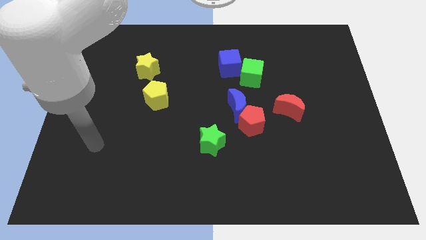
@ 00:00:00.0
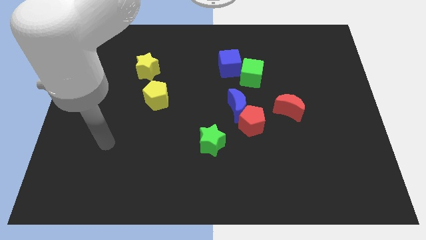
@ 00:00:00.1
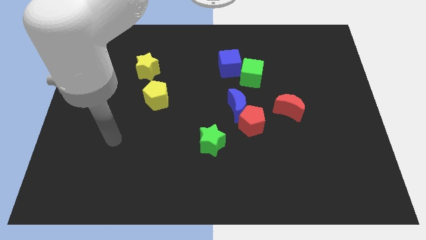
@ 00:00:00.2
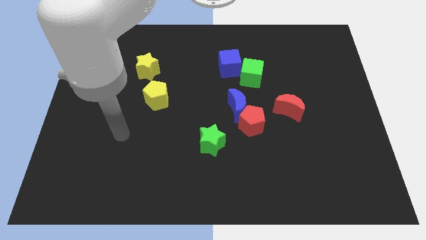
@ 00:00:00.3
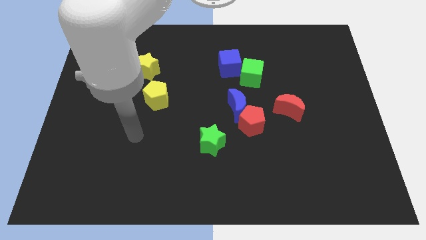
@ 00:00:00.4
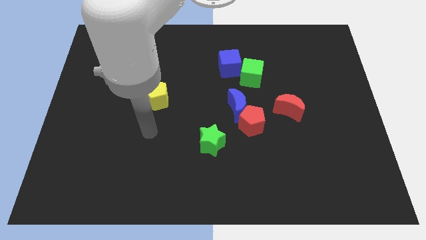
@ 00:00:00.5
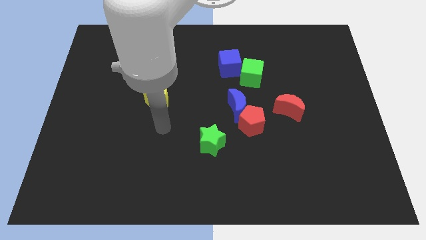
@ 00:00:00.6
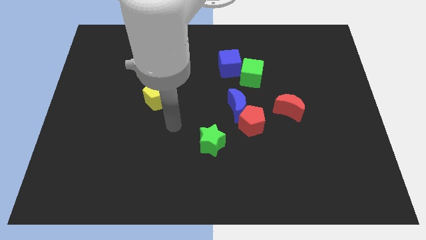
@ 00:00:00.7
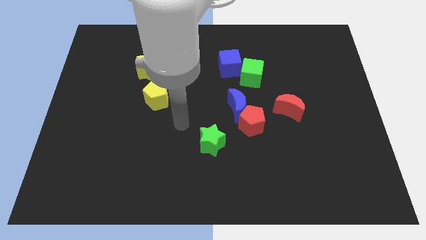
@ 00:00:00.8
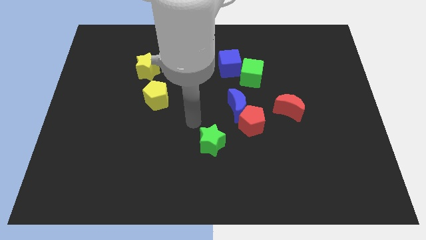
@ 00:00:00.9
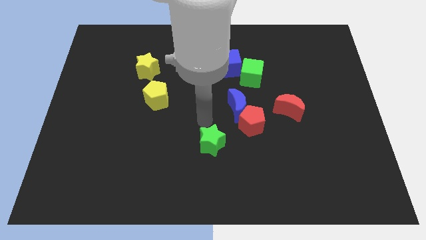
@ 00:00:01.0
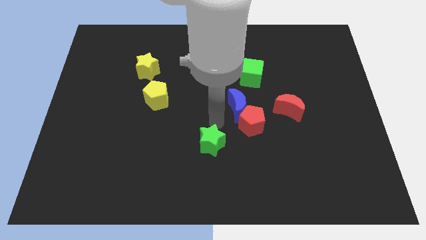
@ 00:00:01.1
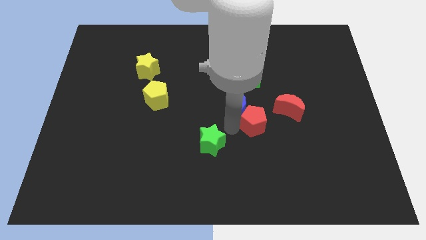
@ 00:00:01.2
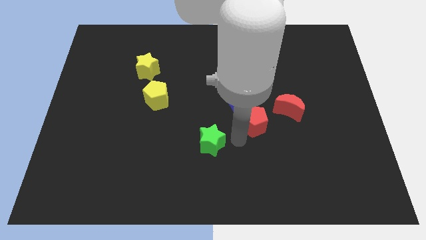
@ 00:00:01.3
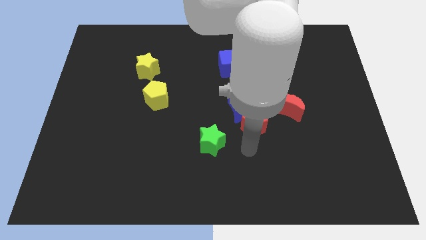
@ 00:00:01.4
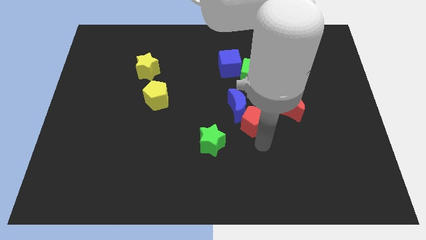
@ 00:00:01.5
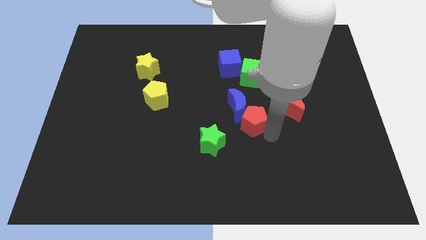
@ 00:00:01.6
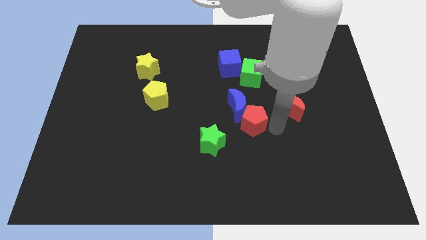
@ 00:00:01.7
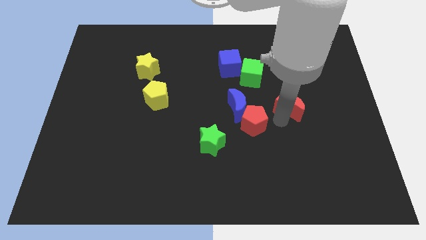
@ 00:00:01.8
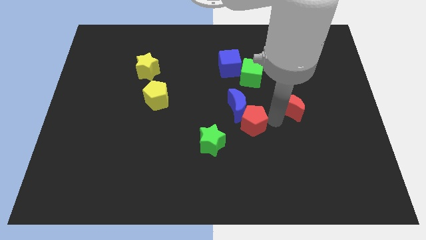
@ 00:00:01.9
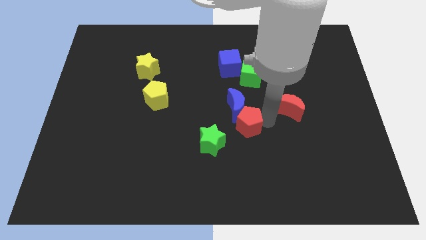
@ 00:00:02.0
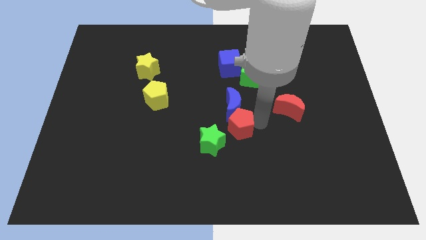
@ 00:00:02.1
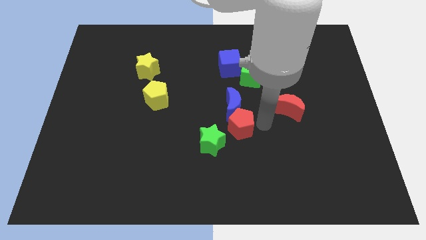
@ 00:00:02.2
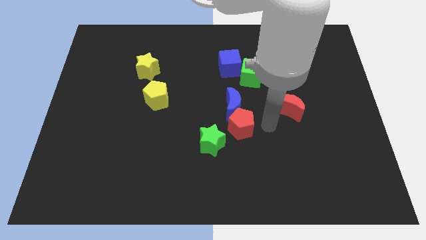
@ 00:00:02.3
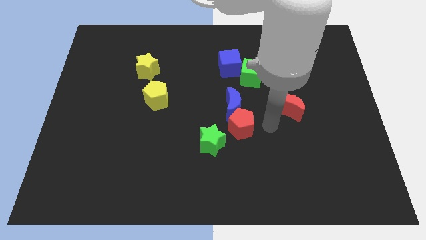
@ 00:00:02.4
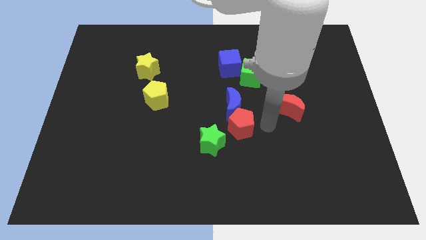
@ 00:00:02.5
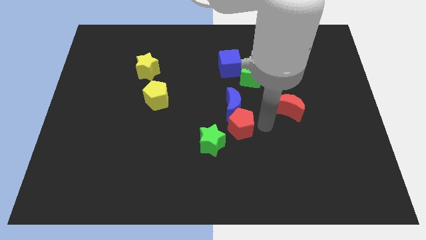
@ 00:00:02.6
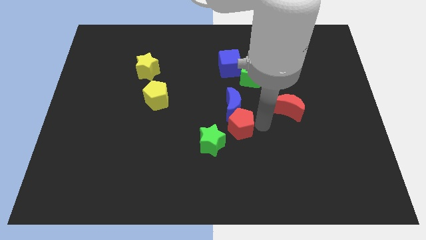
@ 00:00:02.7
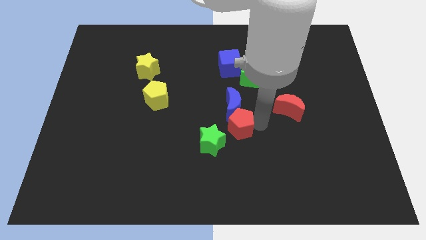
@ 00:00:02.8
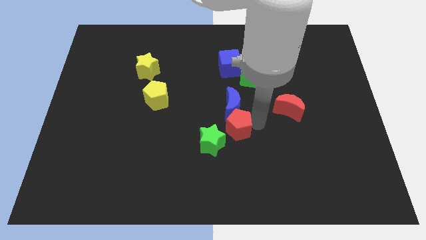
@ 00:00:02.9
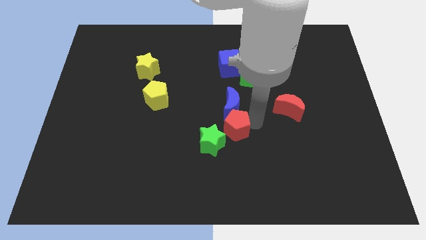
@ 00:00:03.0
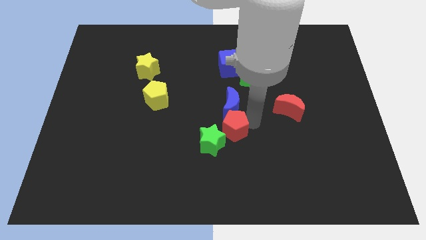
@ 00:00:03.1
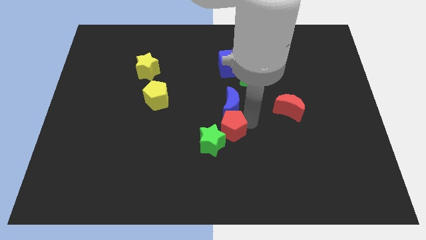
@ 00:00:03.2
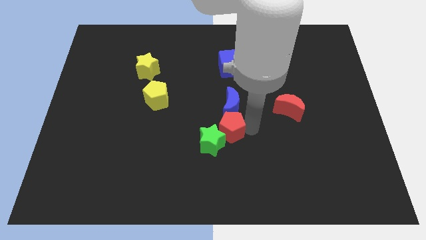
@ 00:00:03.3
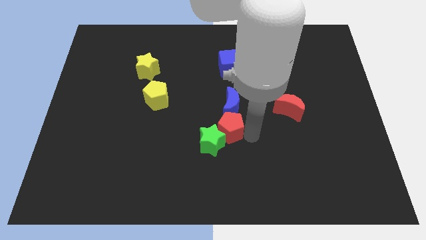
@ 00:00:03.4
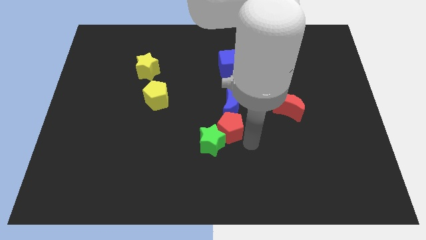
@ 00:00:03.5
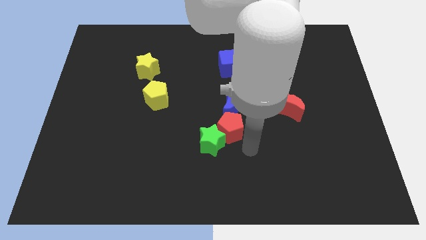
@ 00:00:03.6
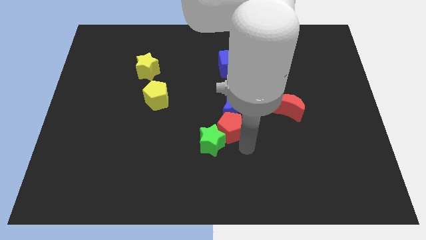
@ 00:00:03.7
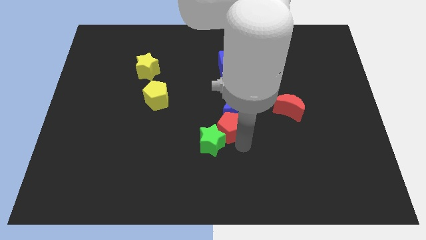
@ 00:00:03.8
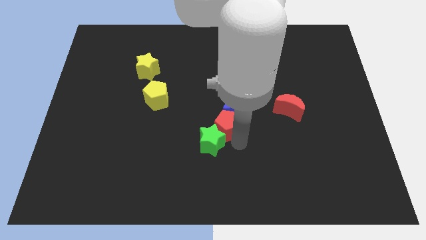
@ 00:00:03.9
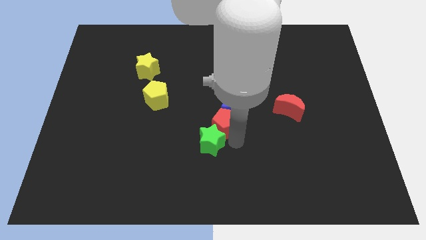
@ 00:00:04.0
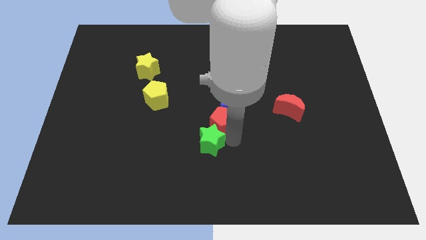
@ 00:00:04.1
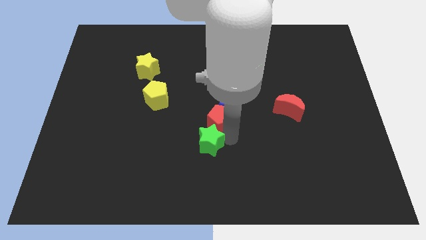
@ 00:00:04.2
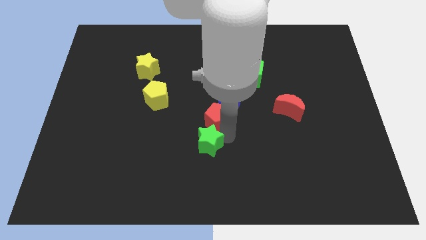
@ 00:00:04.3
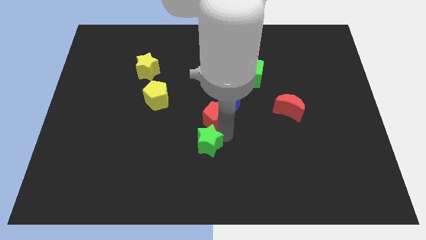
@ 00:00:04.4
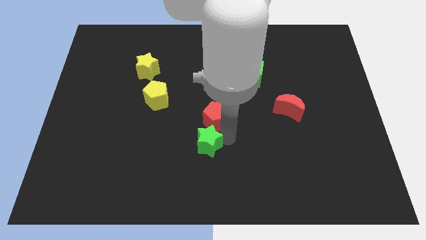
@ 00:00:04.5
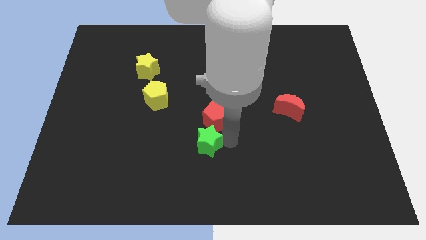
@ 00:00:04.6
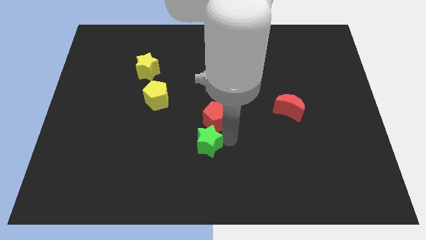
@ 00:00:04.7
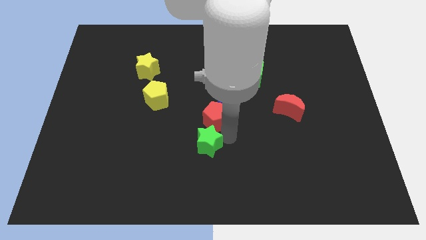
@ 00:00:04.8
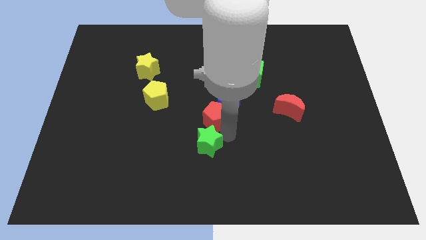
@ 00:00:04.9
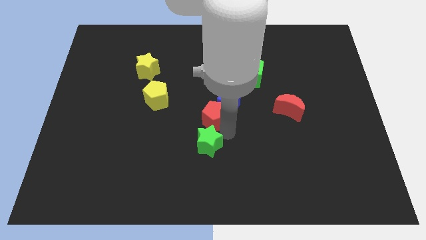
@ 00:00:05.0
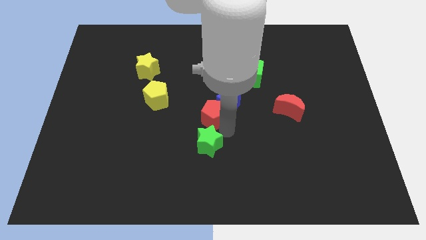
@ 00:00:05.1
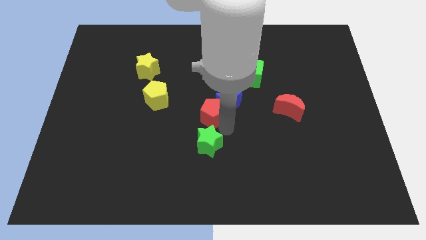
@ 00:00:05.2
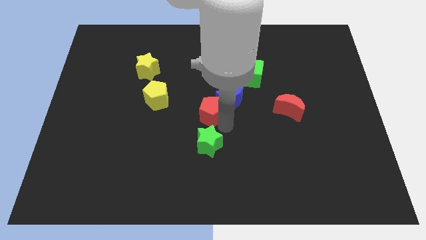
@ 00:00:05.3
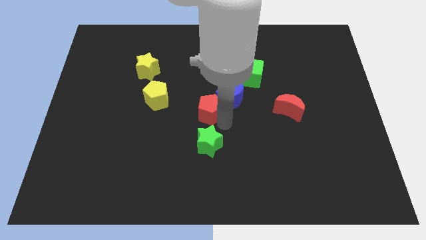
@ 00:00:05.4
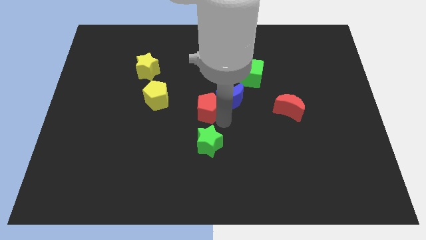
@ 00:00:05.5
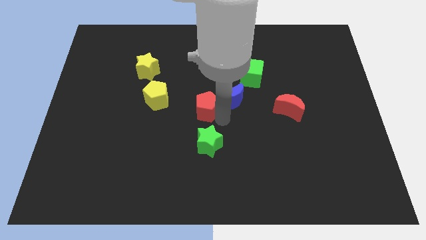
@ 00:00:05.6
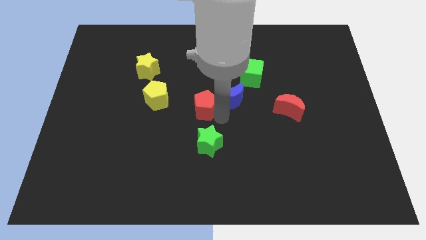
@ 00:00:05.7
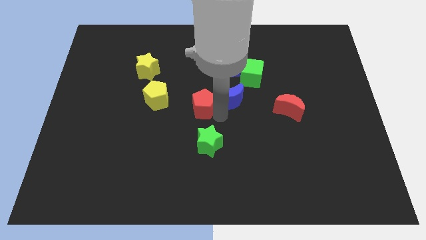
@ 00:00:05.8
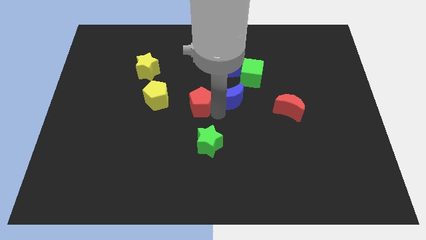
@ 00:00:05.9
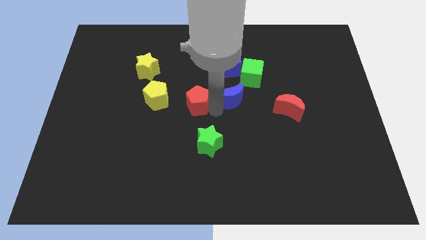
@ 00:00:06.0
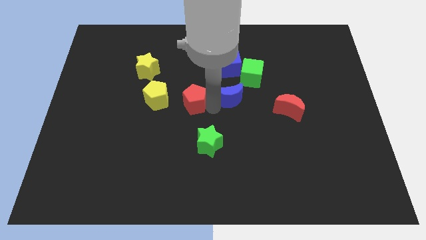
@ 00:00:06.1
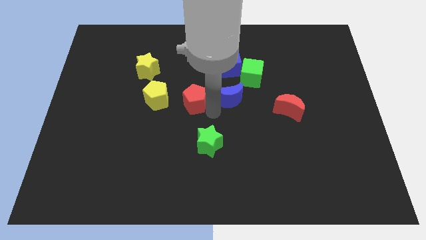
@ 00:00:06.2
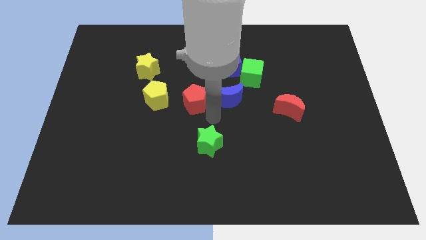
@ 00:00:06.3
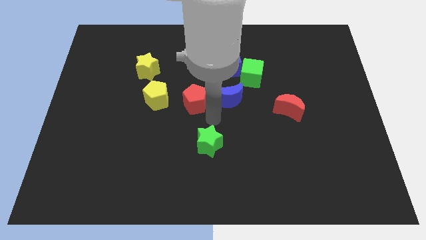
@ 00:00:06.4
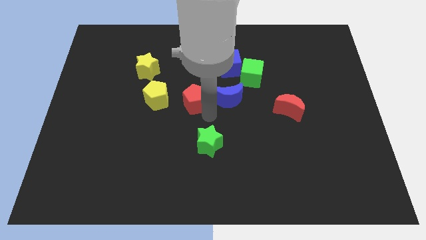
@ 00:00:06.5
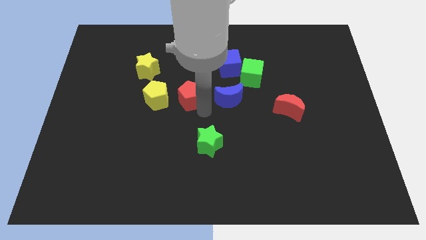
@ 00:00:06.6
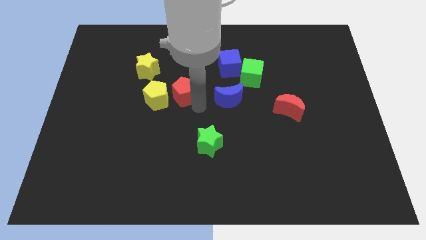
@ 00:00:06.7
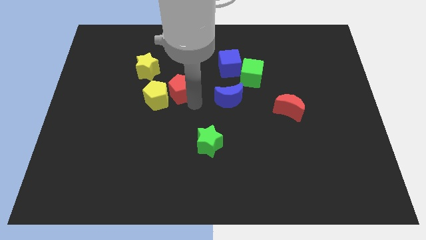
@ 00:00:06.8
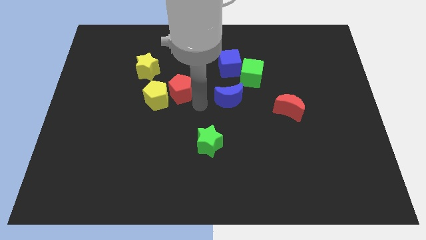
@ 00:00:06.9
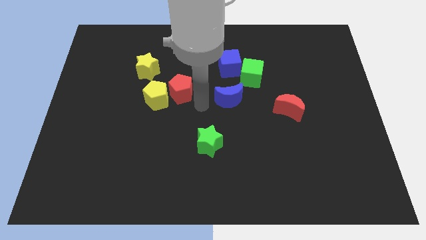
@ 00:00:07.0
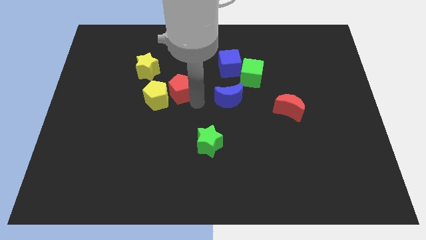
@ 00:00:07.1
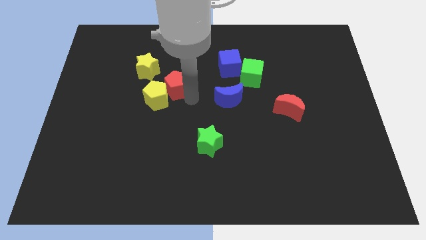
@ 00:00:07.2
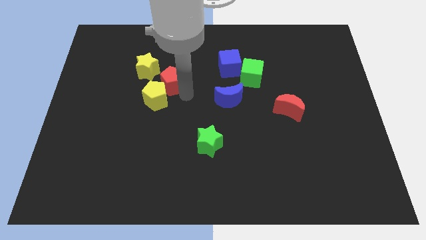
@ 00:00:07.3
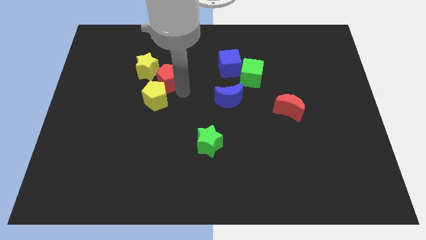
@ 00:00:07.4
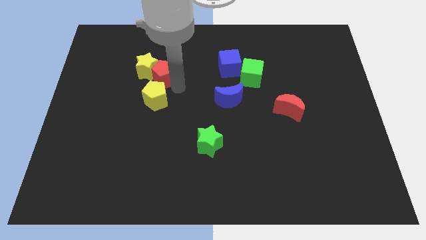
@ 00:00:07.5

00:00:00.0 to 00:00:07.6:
slide the red pentagon next to the yellow star

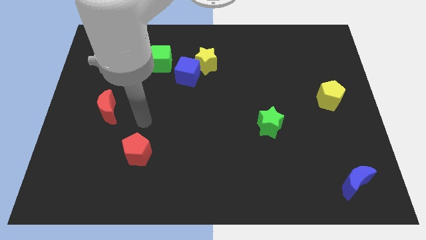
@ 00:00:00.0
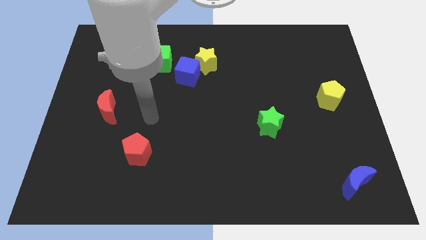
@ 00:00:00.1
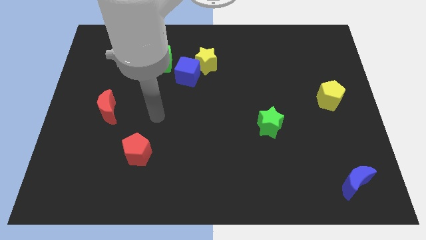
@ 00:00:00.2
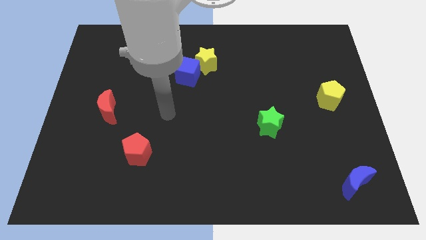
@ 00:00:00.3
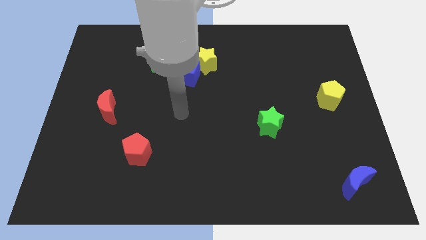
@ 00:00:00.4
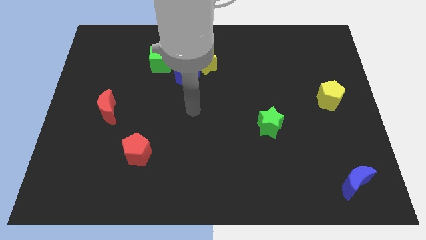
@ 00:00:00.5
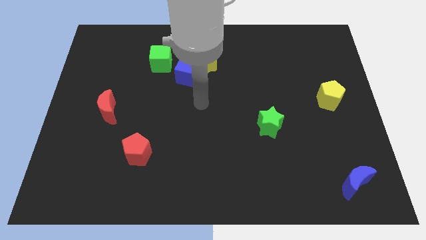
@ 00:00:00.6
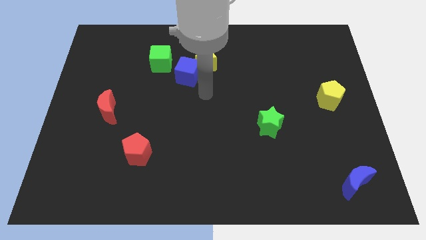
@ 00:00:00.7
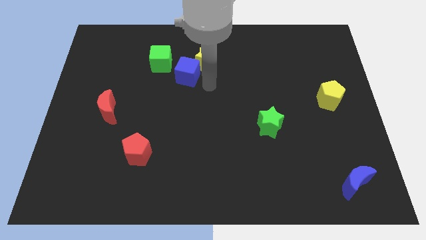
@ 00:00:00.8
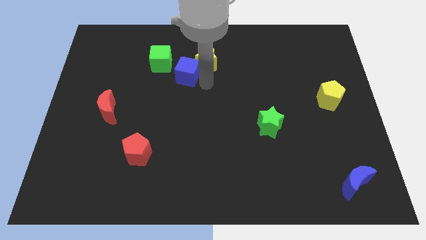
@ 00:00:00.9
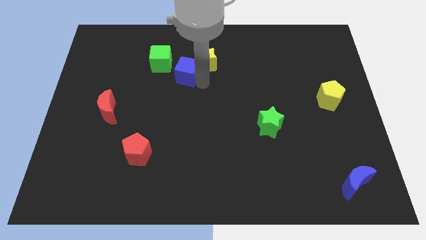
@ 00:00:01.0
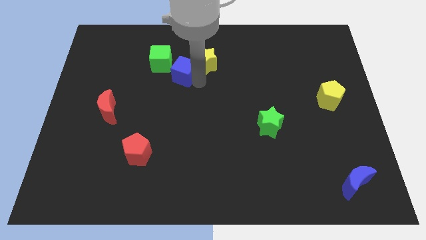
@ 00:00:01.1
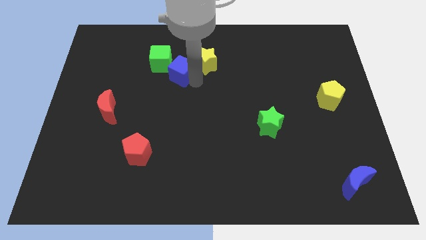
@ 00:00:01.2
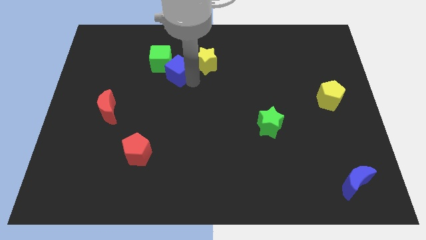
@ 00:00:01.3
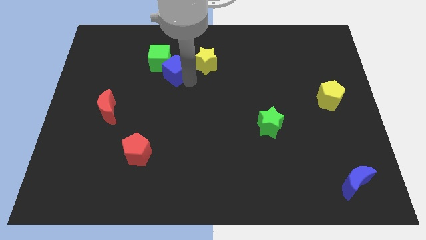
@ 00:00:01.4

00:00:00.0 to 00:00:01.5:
slide the blue cube to the green cube
